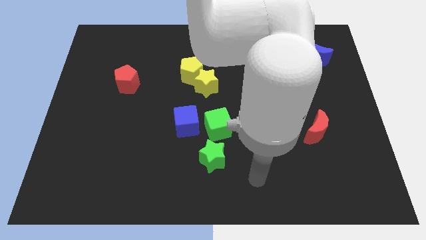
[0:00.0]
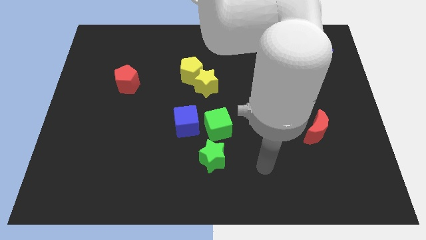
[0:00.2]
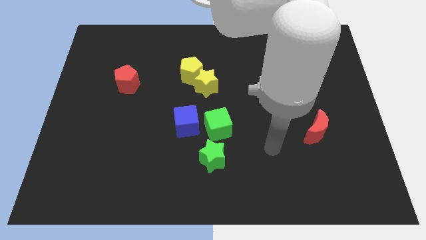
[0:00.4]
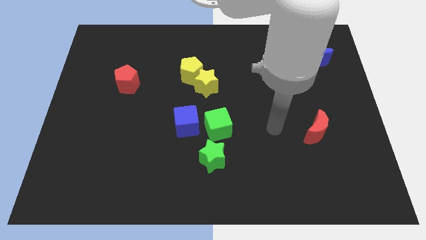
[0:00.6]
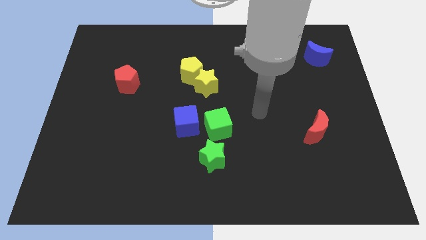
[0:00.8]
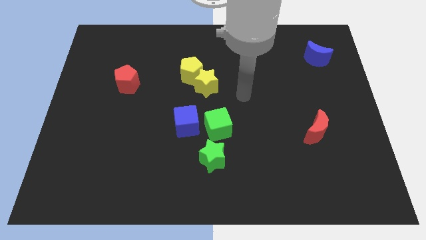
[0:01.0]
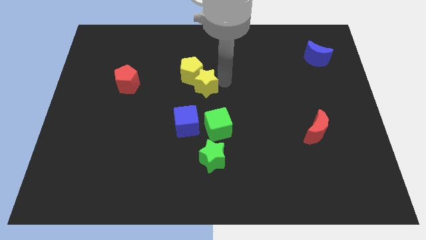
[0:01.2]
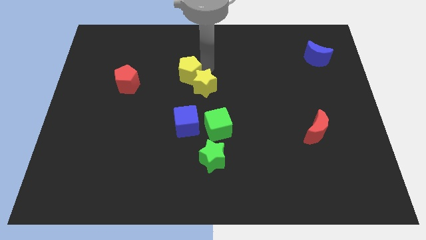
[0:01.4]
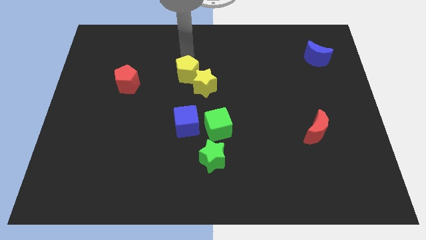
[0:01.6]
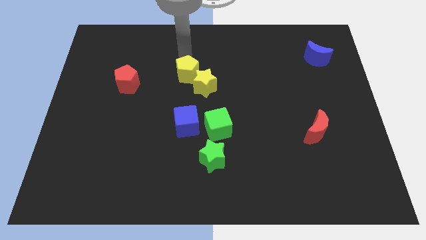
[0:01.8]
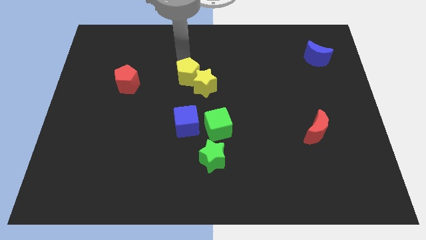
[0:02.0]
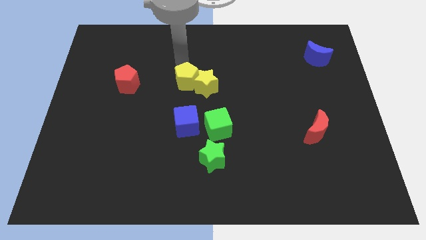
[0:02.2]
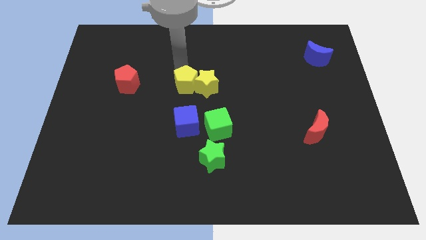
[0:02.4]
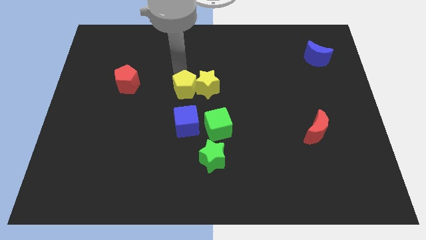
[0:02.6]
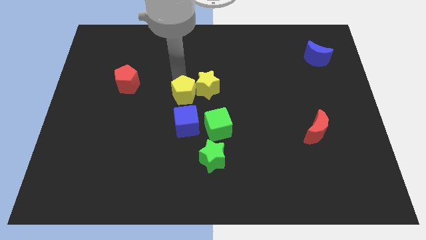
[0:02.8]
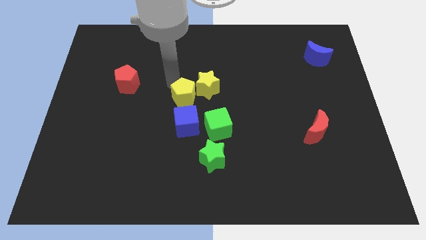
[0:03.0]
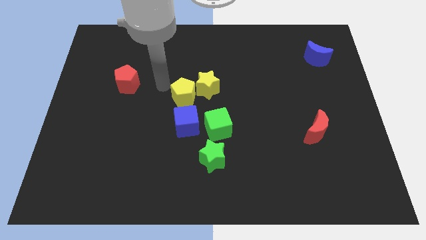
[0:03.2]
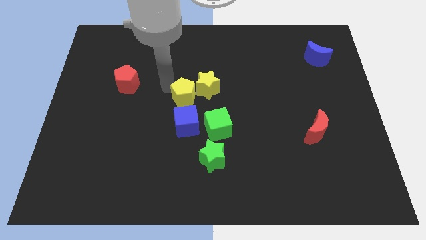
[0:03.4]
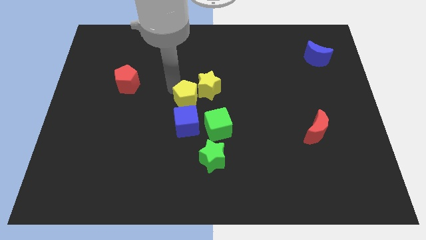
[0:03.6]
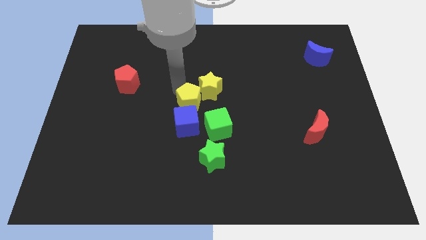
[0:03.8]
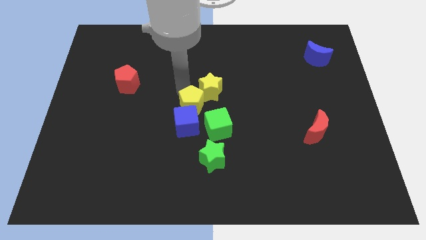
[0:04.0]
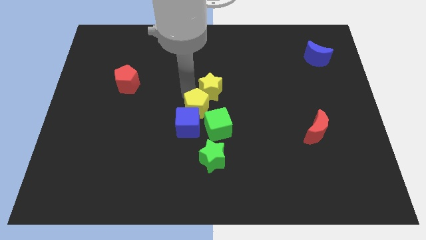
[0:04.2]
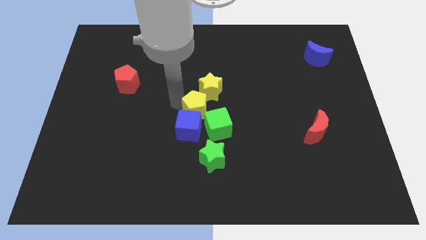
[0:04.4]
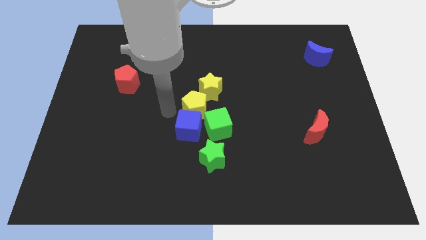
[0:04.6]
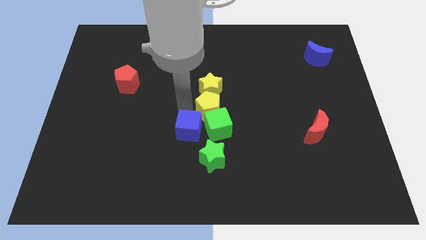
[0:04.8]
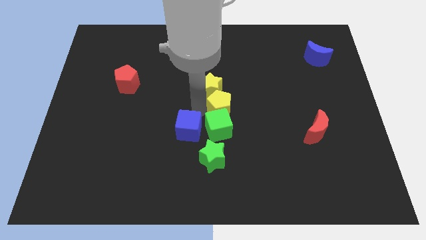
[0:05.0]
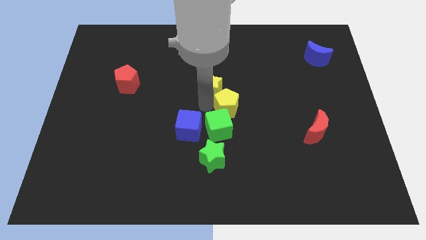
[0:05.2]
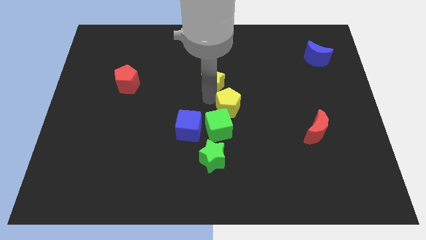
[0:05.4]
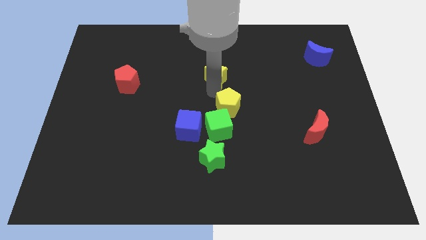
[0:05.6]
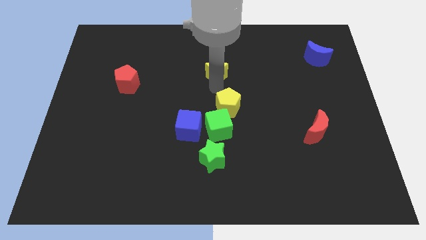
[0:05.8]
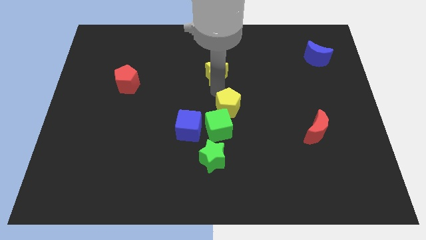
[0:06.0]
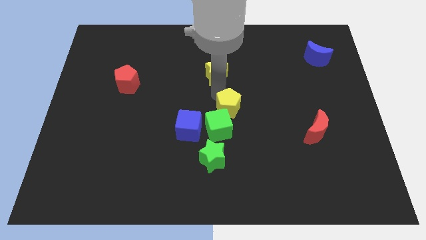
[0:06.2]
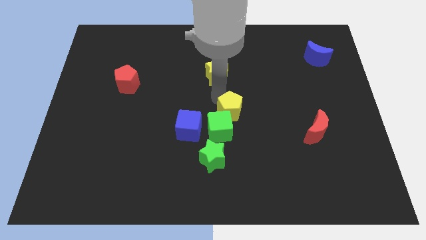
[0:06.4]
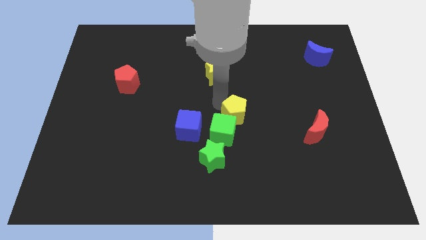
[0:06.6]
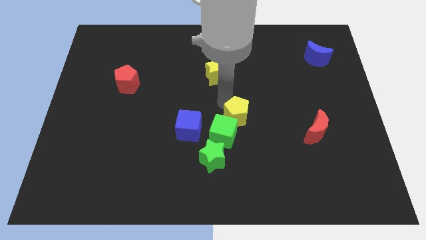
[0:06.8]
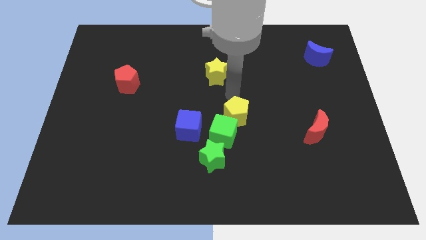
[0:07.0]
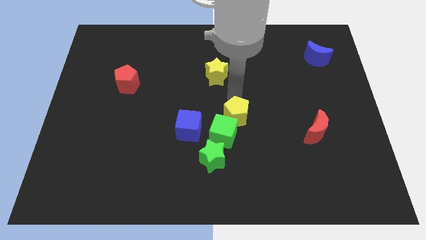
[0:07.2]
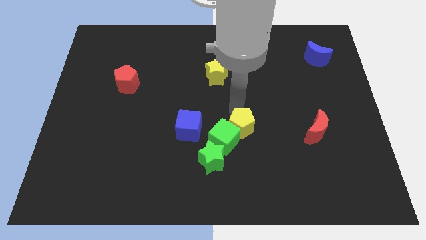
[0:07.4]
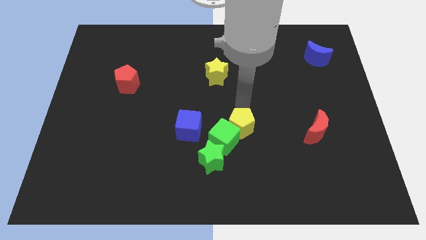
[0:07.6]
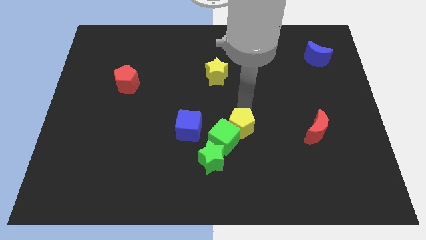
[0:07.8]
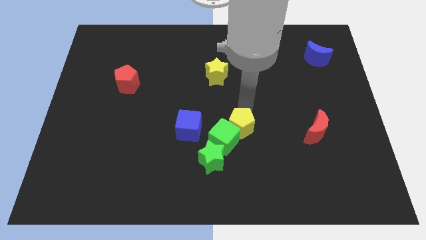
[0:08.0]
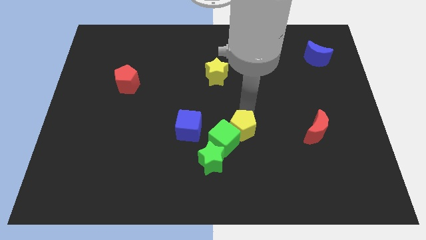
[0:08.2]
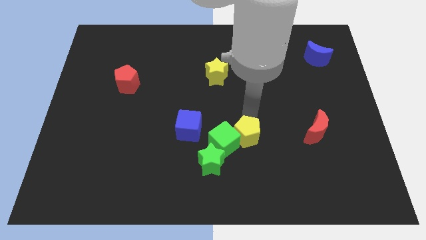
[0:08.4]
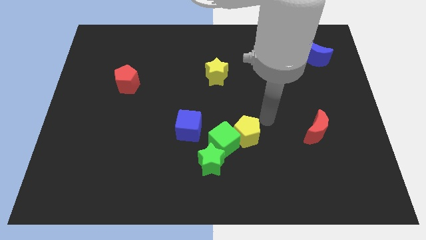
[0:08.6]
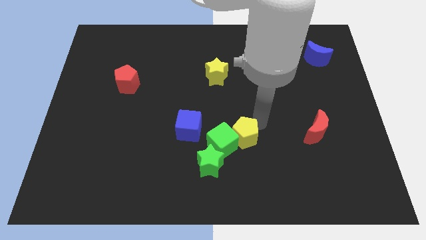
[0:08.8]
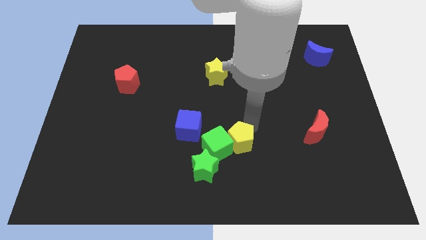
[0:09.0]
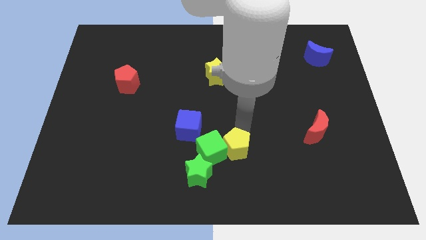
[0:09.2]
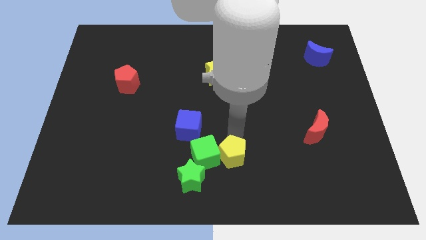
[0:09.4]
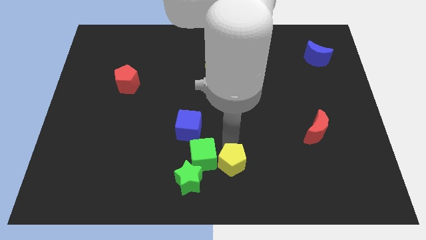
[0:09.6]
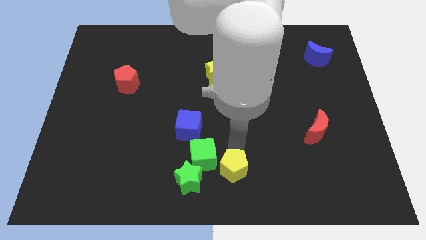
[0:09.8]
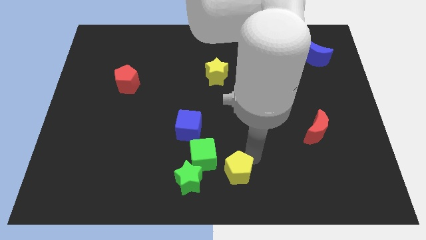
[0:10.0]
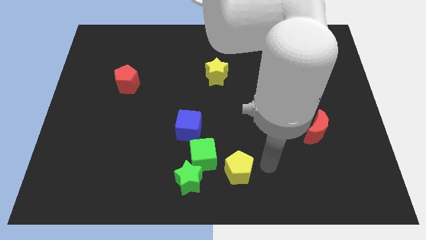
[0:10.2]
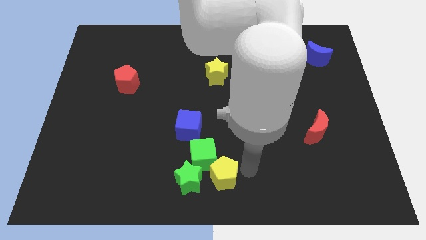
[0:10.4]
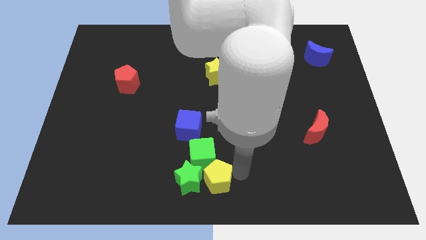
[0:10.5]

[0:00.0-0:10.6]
slide the yellow pentagon to the green star

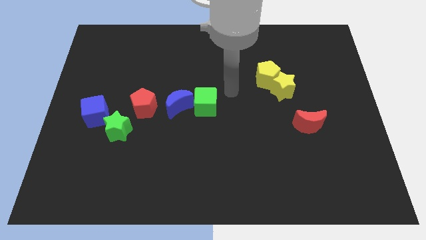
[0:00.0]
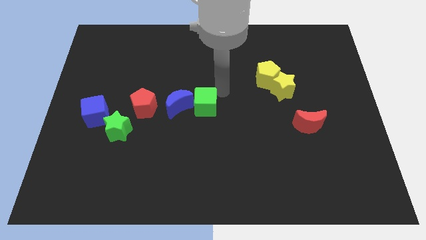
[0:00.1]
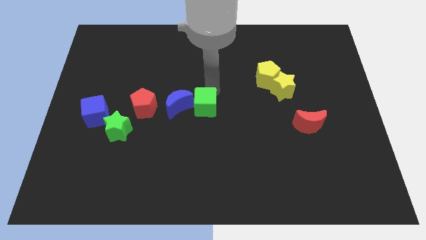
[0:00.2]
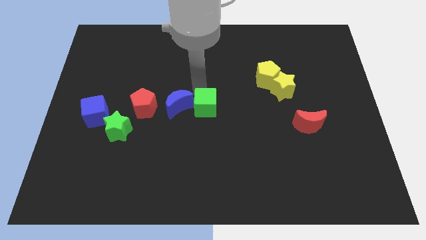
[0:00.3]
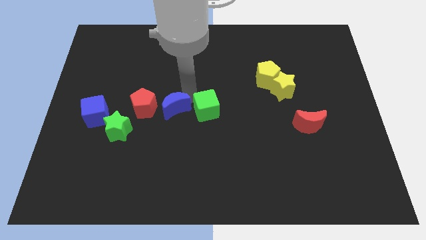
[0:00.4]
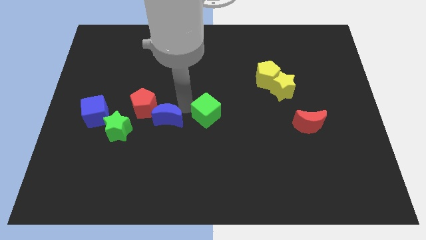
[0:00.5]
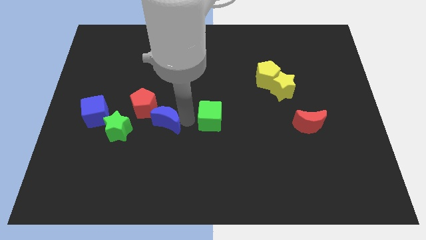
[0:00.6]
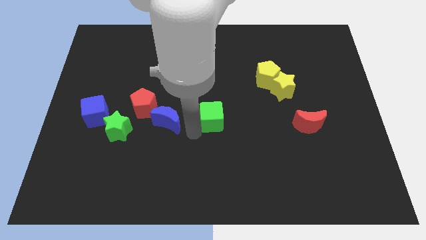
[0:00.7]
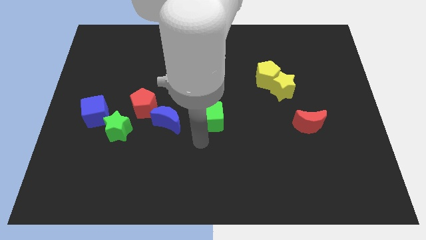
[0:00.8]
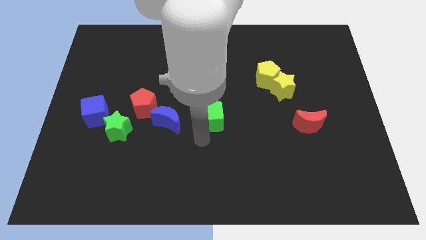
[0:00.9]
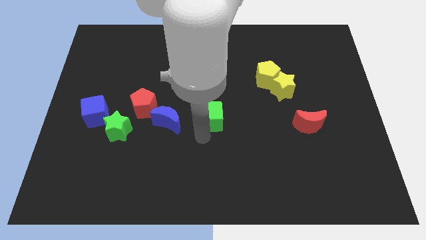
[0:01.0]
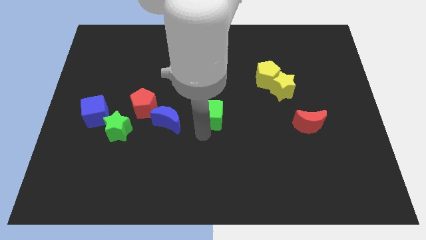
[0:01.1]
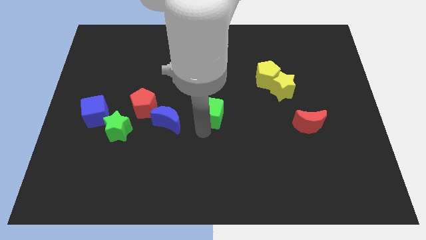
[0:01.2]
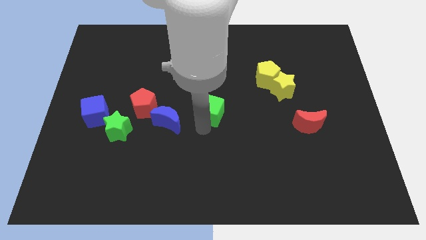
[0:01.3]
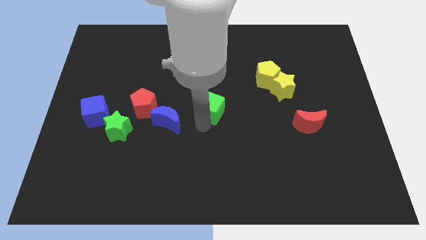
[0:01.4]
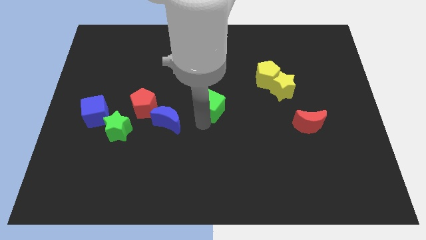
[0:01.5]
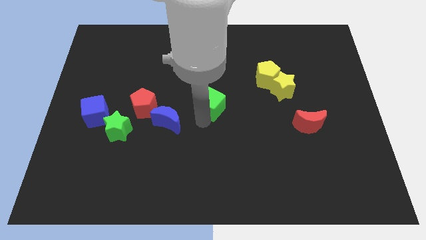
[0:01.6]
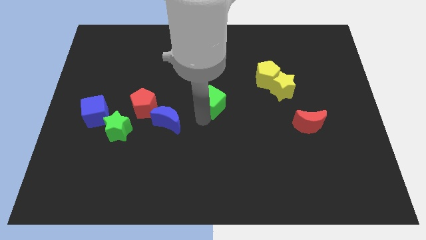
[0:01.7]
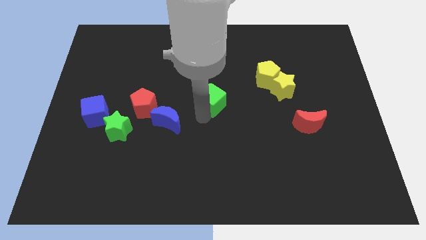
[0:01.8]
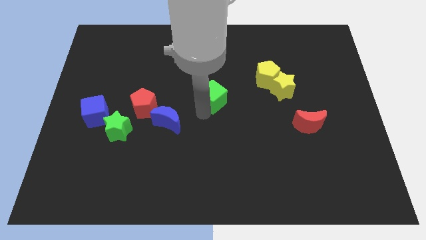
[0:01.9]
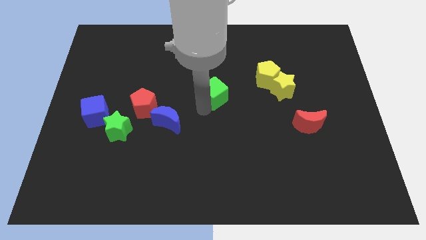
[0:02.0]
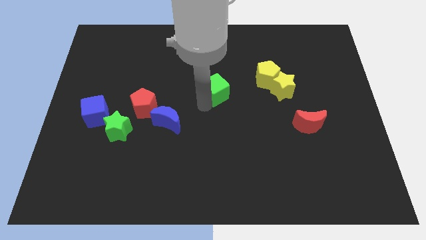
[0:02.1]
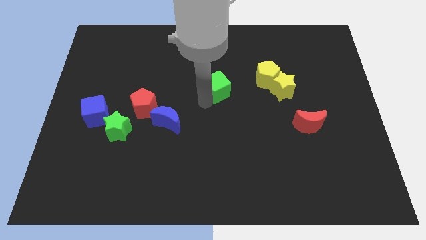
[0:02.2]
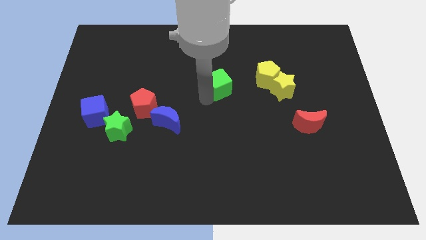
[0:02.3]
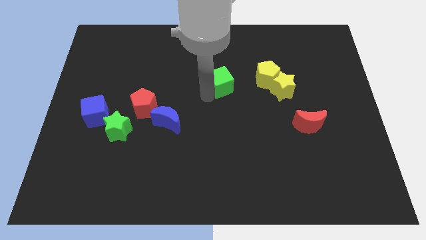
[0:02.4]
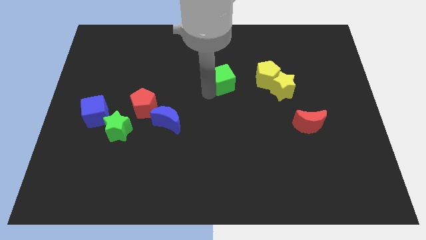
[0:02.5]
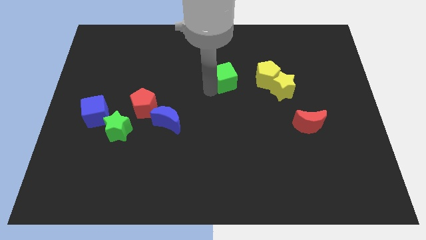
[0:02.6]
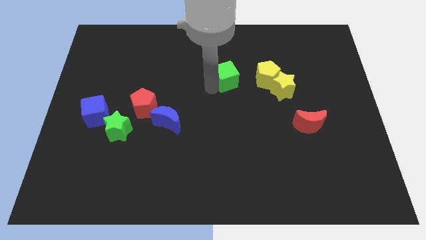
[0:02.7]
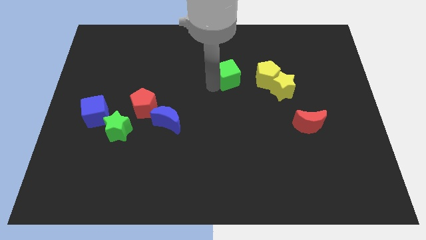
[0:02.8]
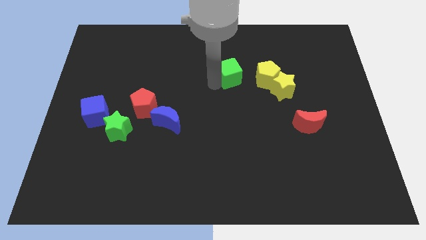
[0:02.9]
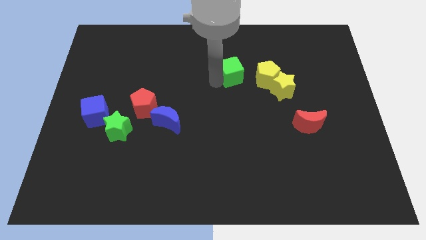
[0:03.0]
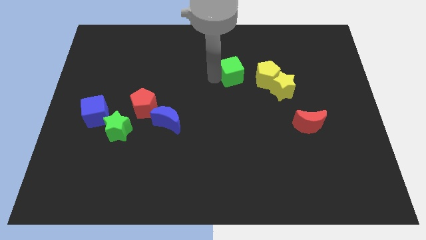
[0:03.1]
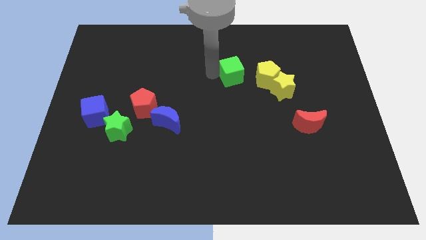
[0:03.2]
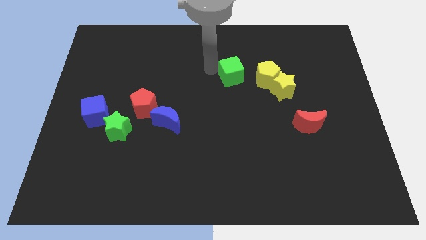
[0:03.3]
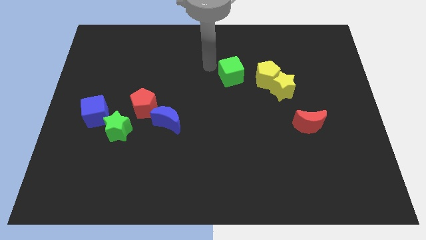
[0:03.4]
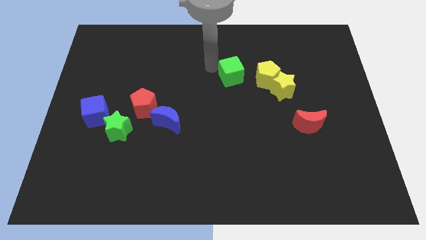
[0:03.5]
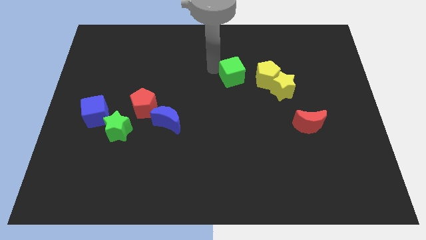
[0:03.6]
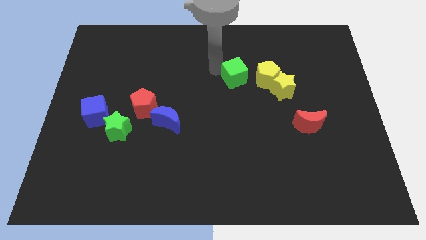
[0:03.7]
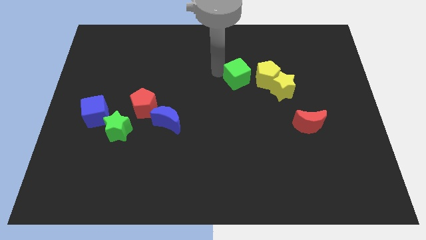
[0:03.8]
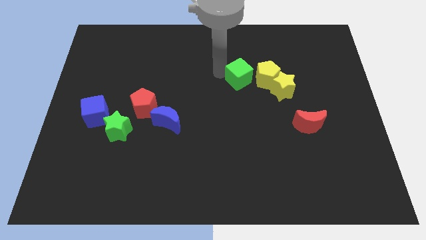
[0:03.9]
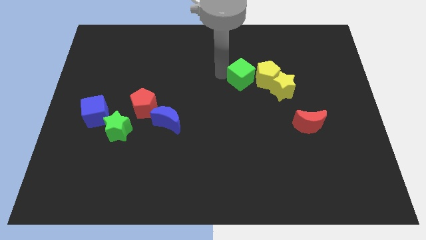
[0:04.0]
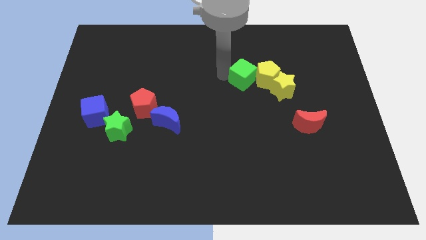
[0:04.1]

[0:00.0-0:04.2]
put the green cube close to the yellow pentagon
